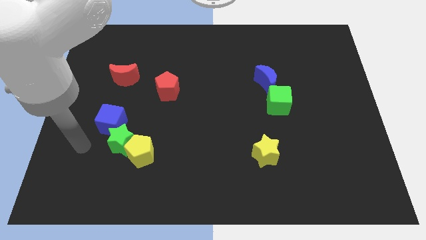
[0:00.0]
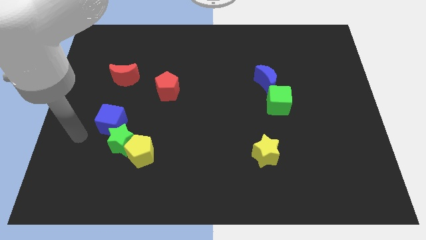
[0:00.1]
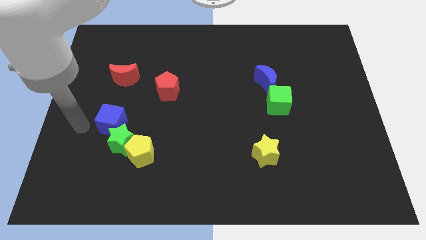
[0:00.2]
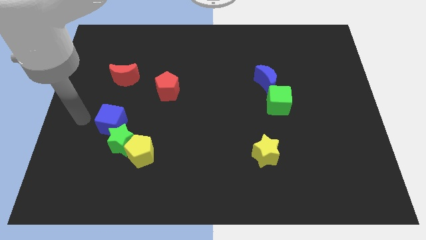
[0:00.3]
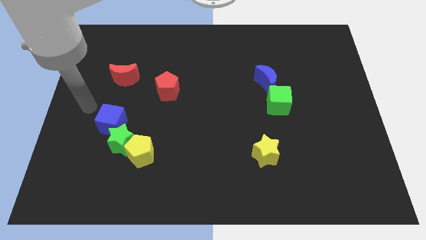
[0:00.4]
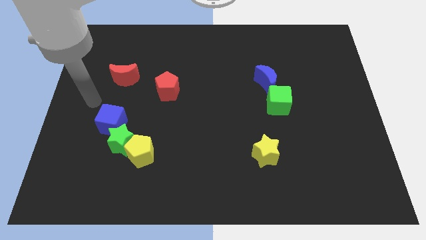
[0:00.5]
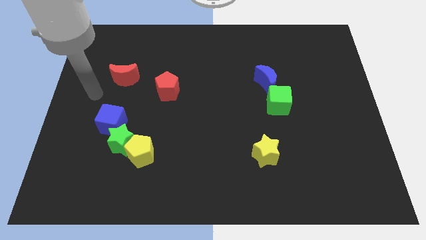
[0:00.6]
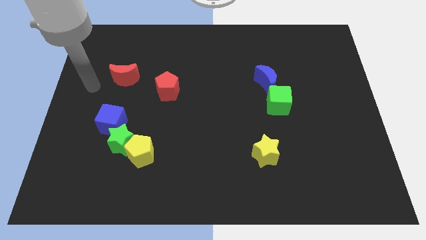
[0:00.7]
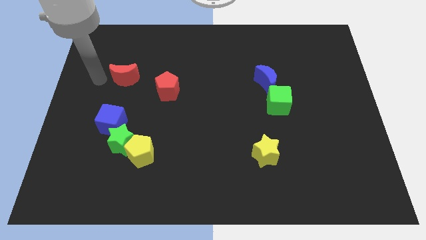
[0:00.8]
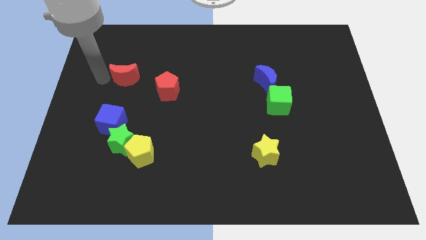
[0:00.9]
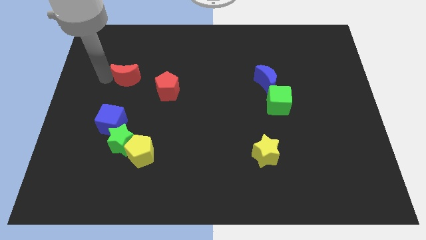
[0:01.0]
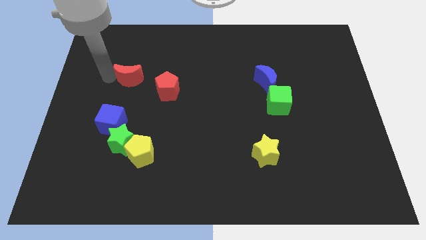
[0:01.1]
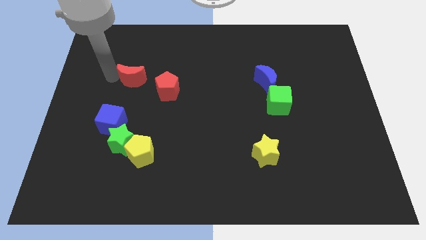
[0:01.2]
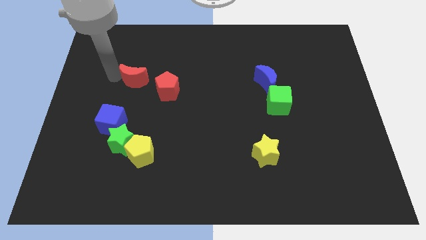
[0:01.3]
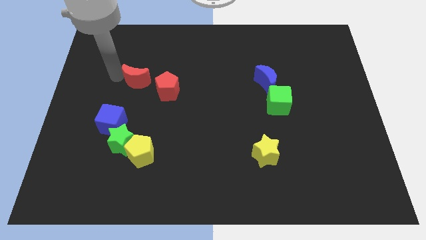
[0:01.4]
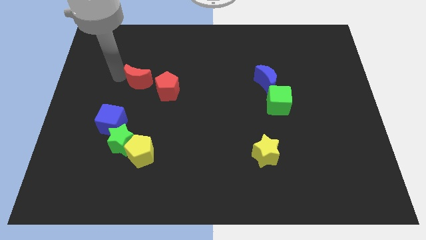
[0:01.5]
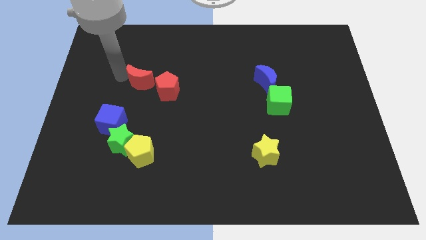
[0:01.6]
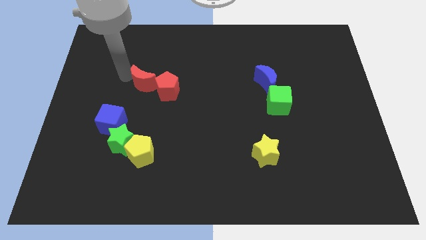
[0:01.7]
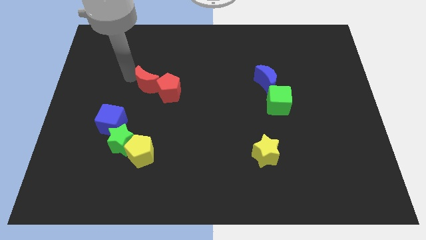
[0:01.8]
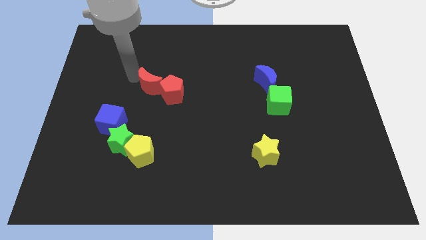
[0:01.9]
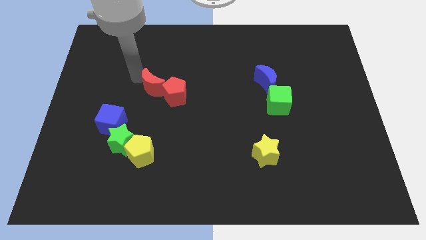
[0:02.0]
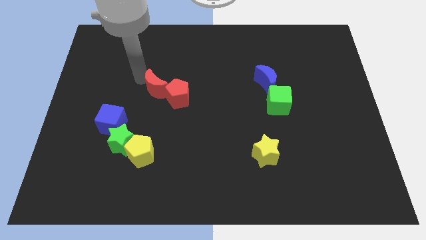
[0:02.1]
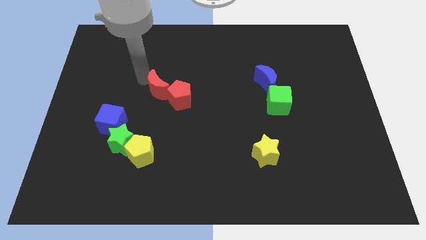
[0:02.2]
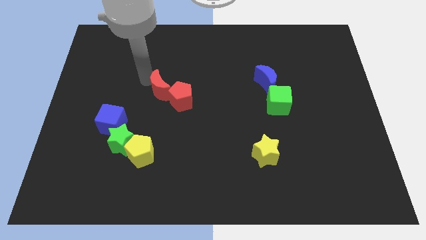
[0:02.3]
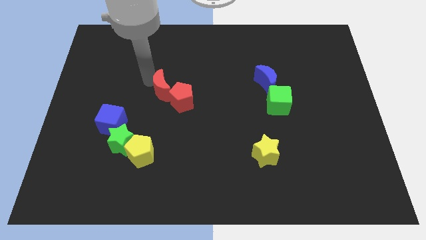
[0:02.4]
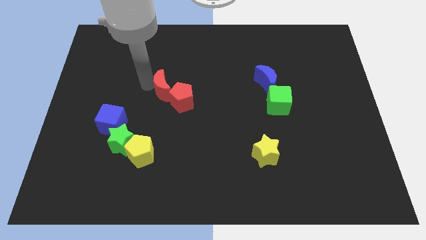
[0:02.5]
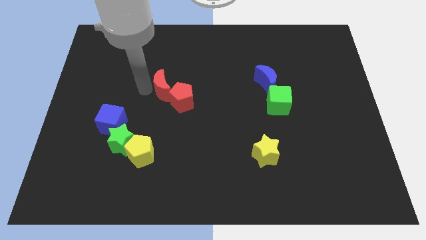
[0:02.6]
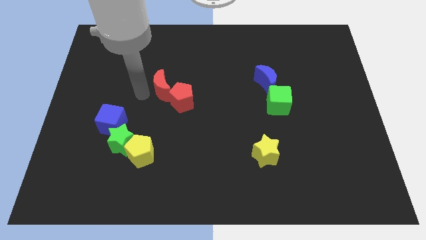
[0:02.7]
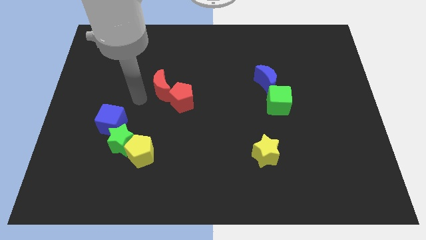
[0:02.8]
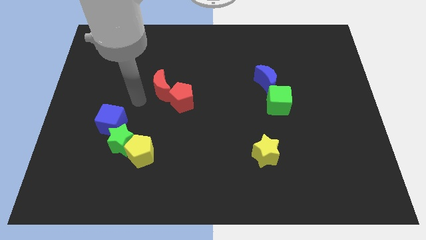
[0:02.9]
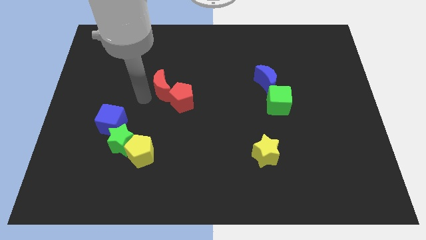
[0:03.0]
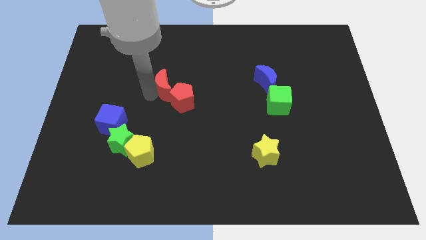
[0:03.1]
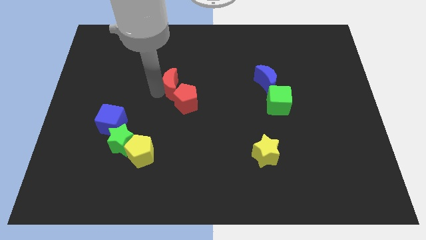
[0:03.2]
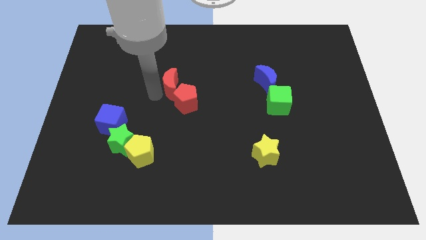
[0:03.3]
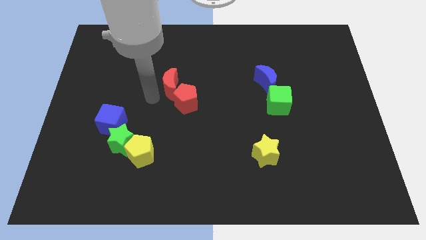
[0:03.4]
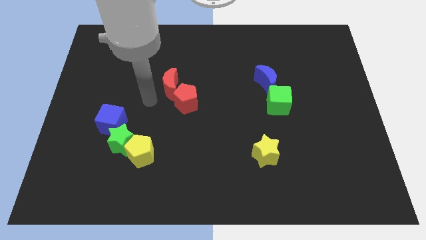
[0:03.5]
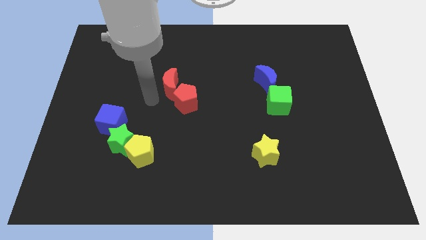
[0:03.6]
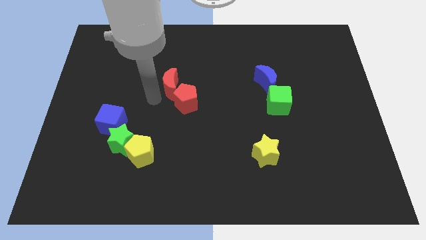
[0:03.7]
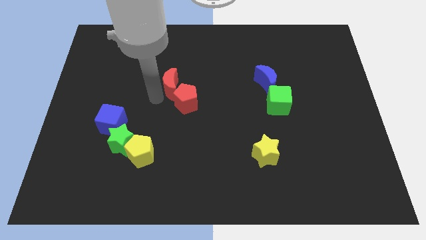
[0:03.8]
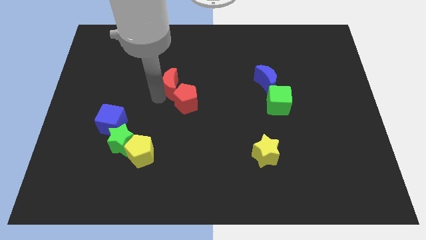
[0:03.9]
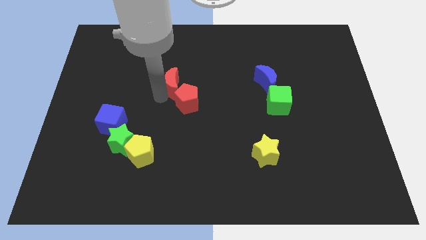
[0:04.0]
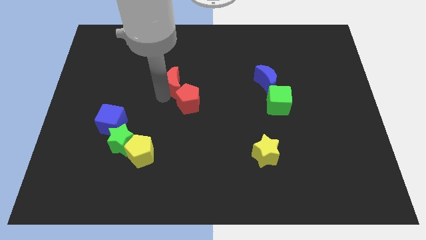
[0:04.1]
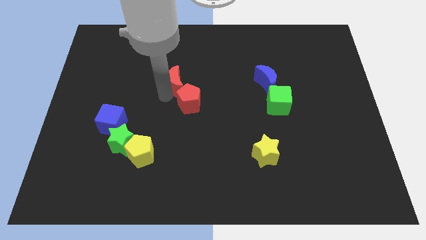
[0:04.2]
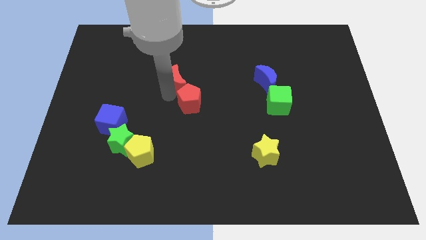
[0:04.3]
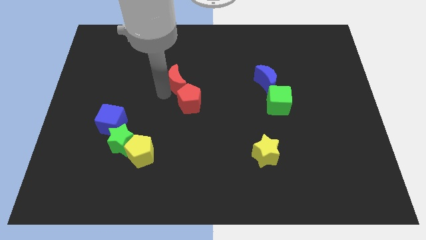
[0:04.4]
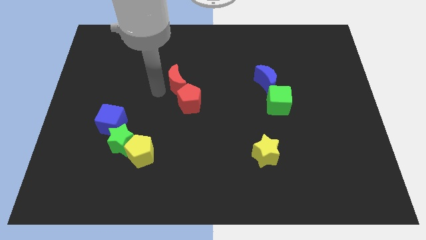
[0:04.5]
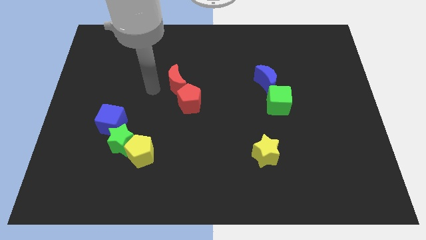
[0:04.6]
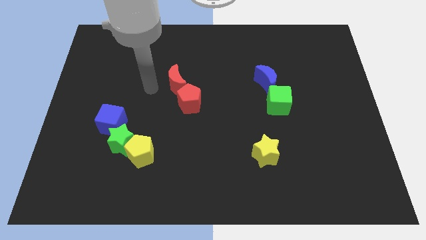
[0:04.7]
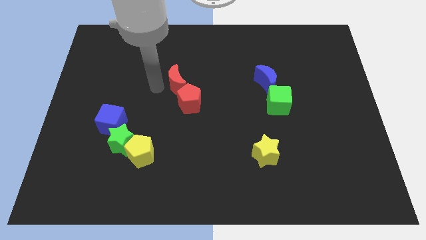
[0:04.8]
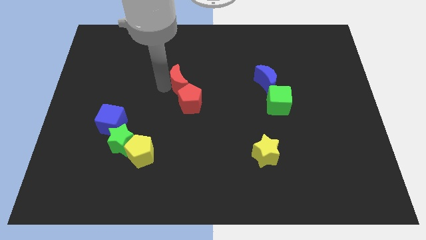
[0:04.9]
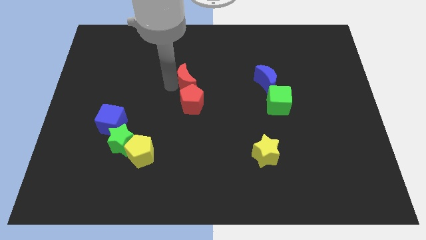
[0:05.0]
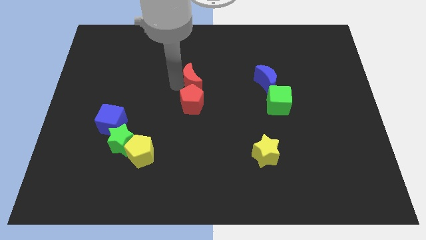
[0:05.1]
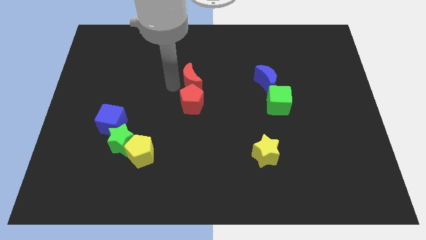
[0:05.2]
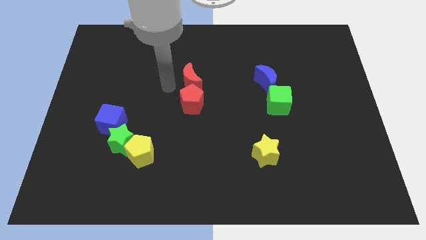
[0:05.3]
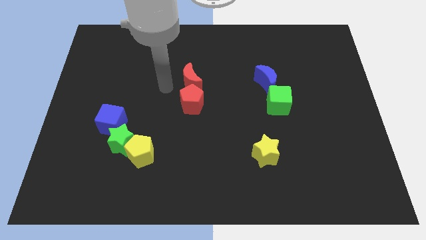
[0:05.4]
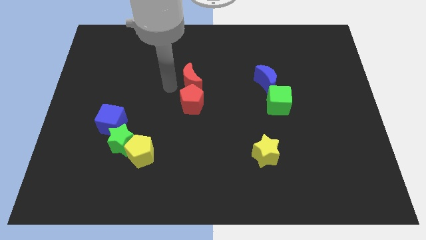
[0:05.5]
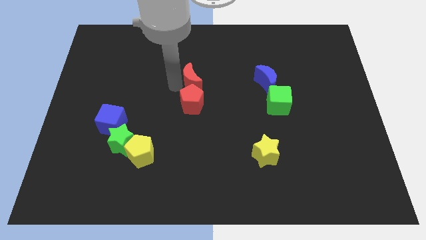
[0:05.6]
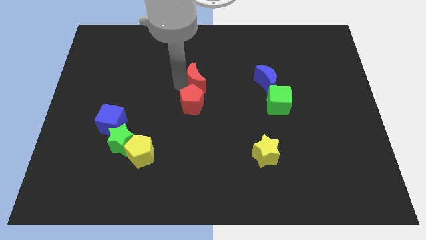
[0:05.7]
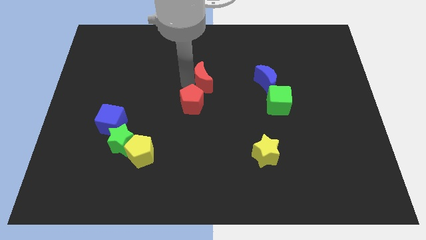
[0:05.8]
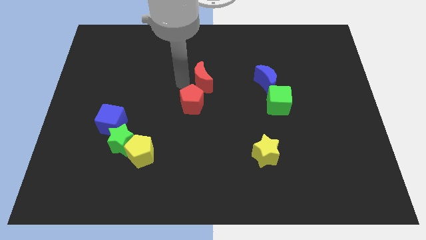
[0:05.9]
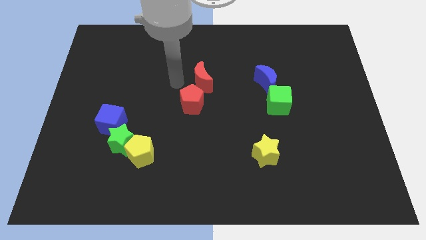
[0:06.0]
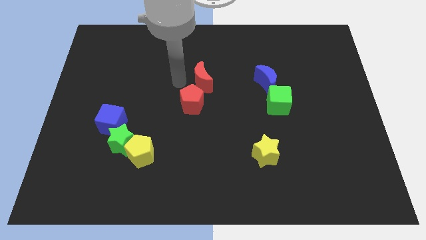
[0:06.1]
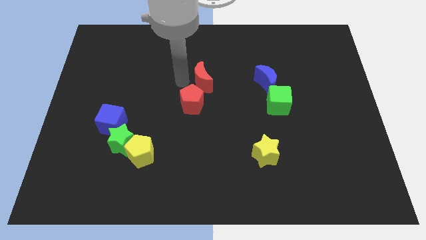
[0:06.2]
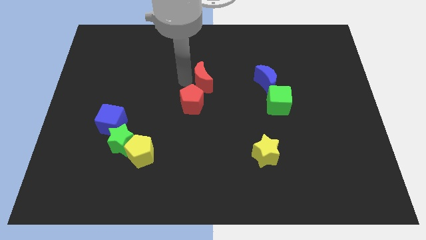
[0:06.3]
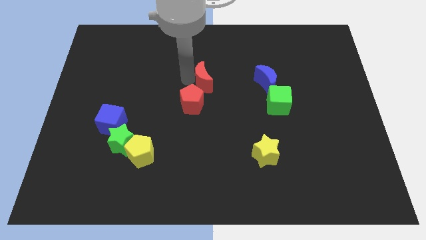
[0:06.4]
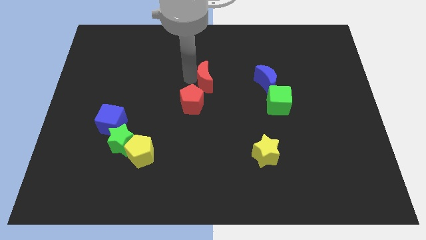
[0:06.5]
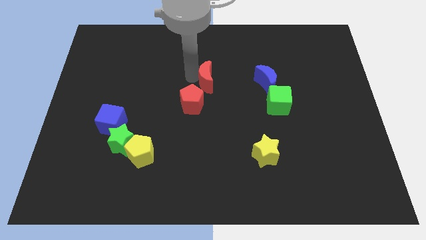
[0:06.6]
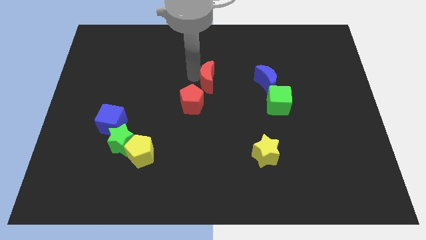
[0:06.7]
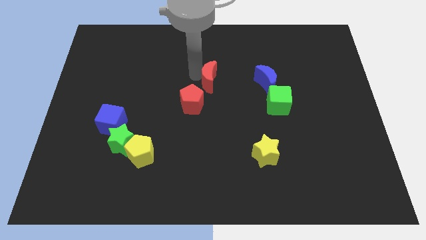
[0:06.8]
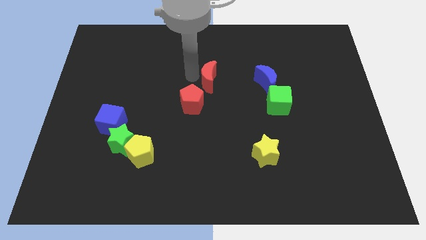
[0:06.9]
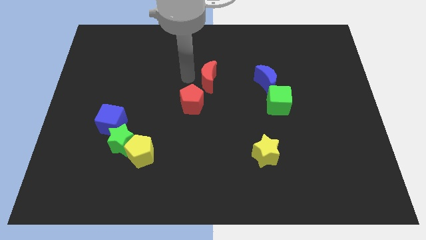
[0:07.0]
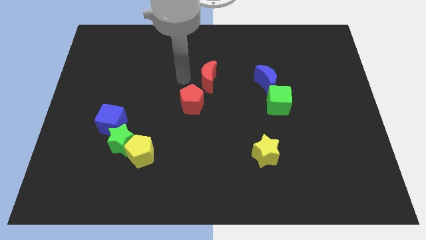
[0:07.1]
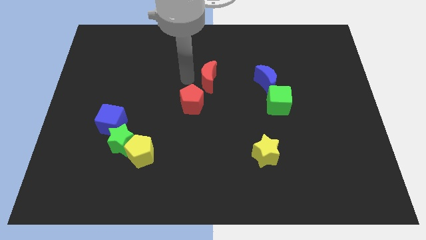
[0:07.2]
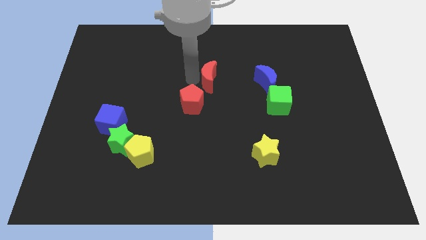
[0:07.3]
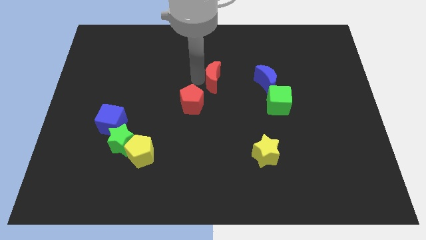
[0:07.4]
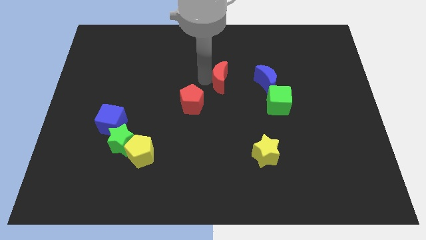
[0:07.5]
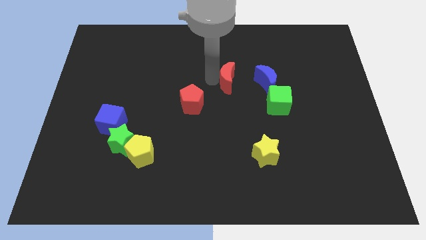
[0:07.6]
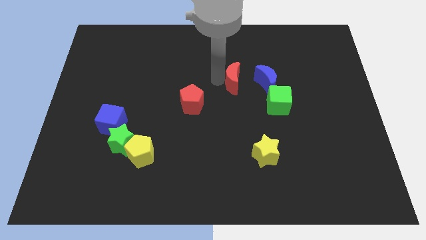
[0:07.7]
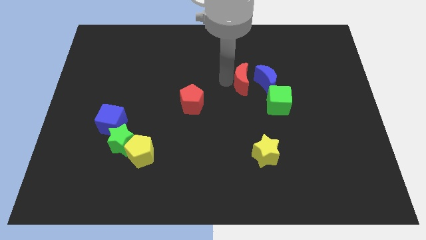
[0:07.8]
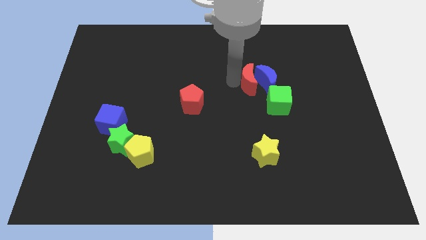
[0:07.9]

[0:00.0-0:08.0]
push the red moon close to the blue moon
